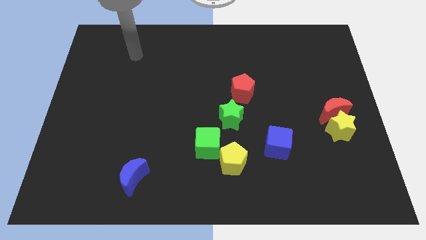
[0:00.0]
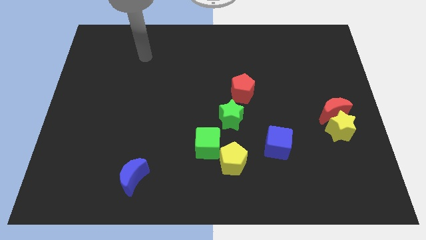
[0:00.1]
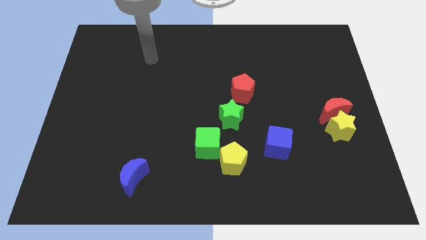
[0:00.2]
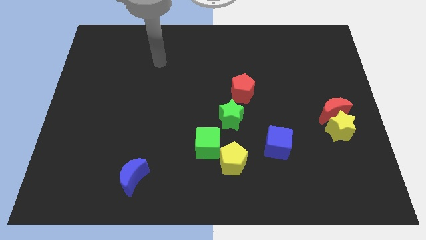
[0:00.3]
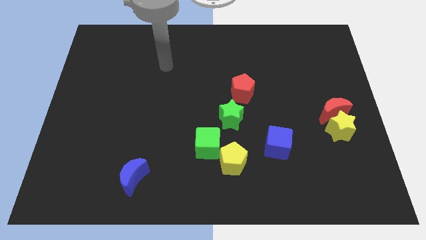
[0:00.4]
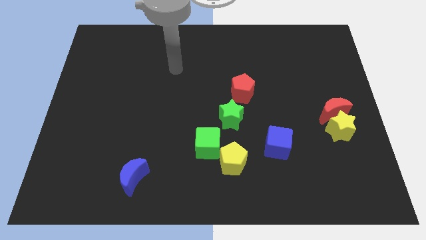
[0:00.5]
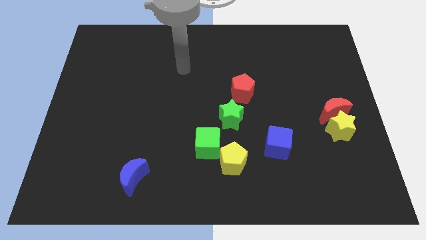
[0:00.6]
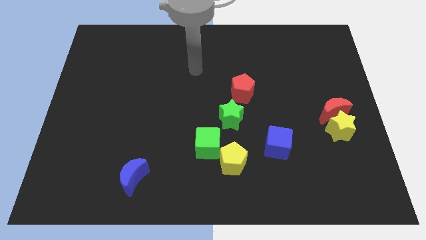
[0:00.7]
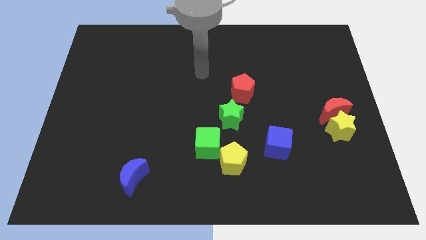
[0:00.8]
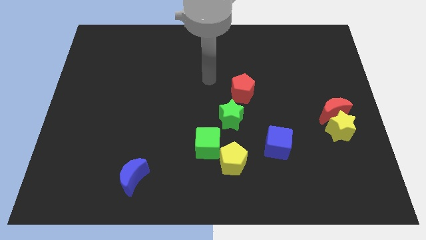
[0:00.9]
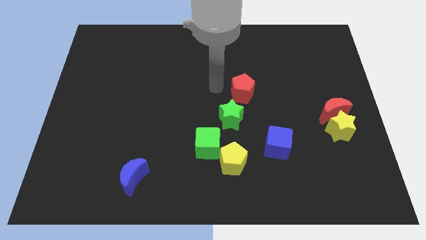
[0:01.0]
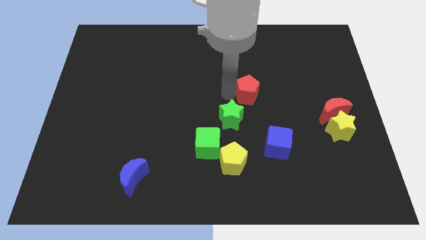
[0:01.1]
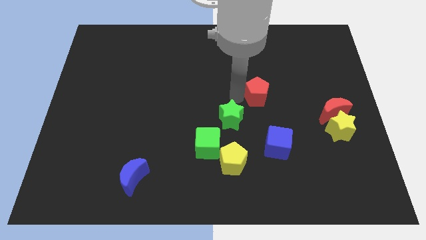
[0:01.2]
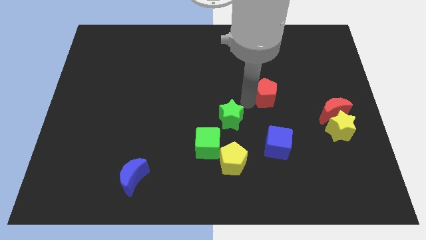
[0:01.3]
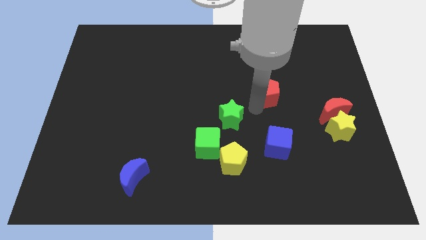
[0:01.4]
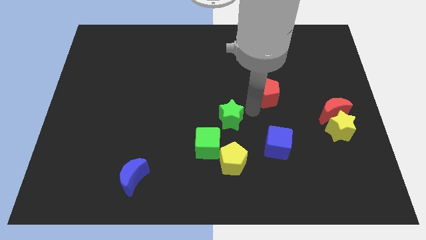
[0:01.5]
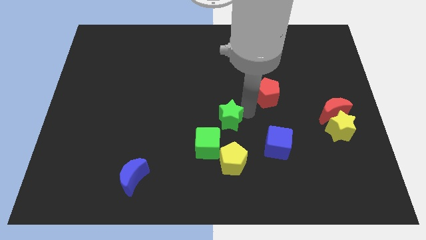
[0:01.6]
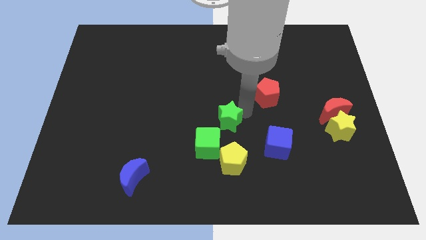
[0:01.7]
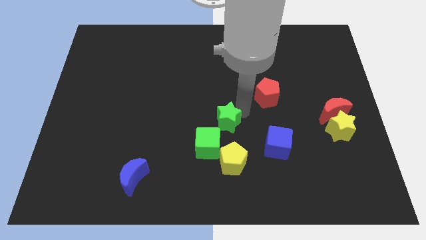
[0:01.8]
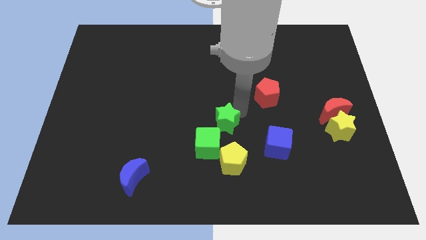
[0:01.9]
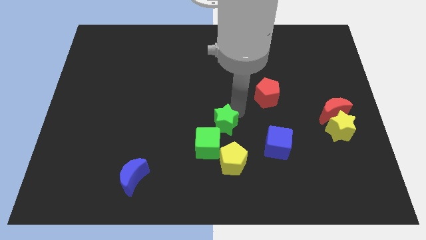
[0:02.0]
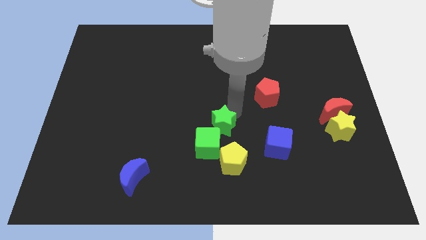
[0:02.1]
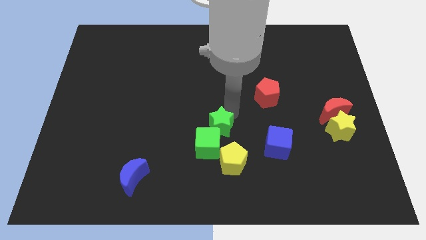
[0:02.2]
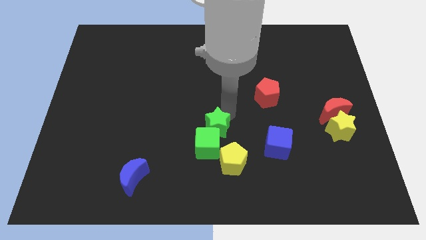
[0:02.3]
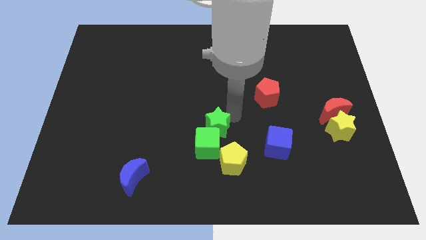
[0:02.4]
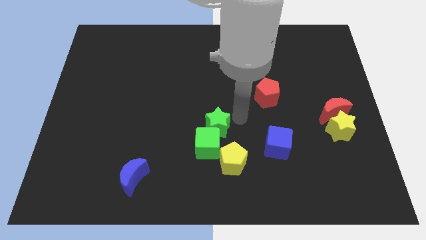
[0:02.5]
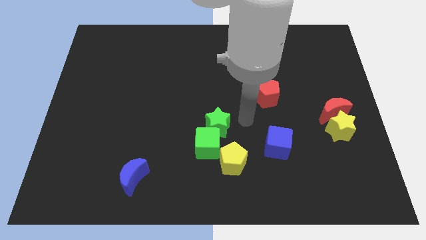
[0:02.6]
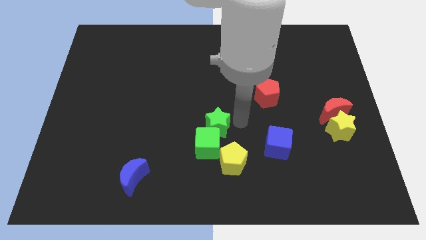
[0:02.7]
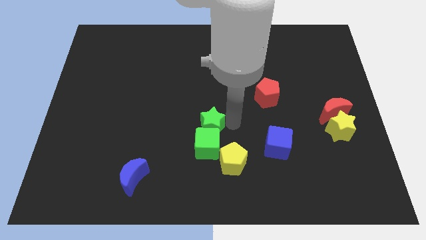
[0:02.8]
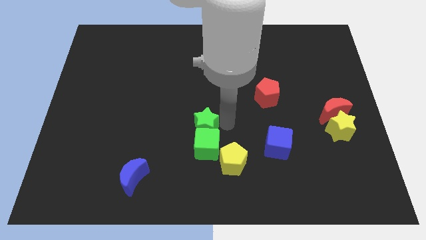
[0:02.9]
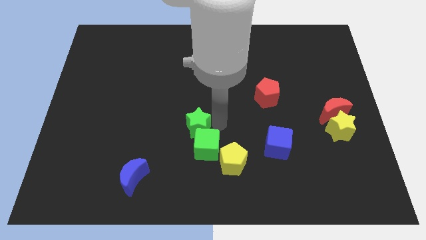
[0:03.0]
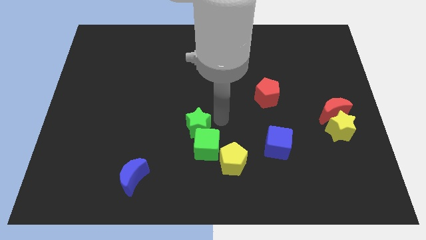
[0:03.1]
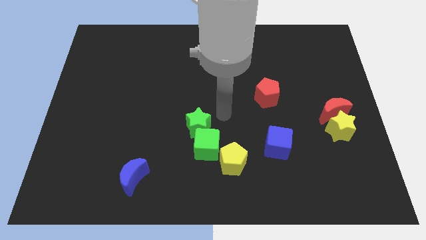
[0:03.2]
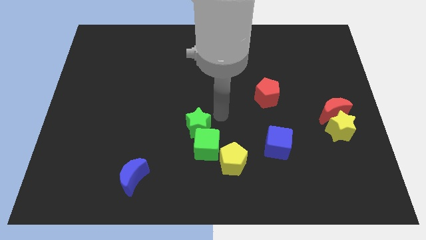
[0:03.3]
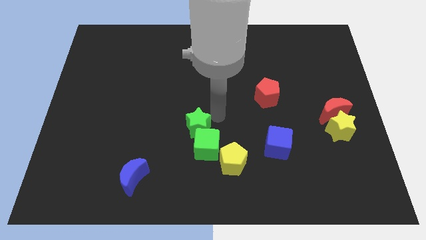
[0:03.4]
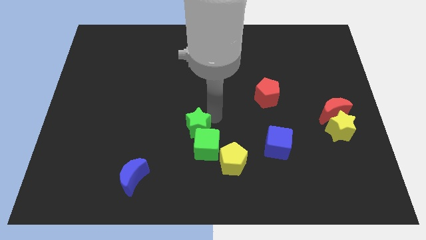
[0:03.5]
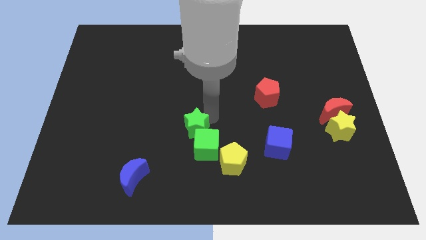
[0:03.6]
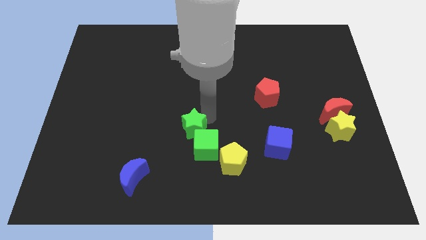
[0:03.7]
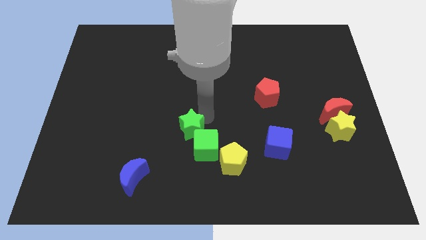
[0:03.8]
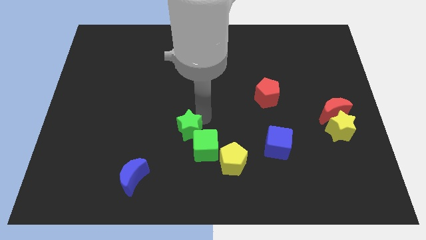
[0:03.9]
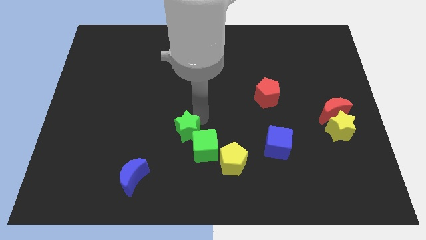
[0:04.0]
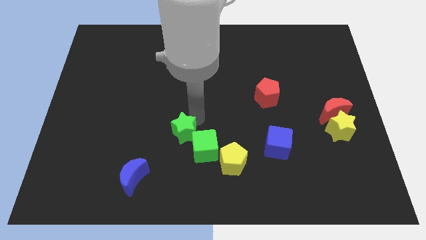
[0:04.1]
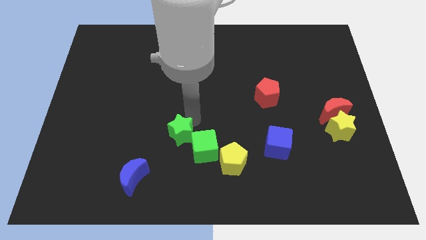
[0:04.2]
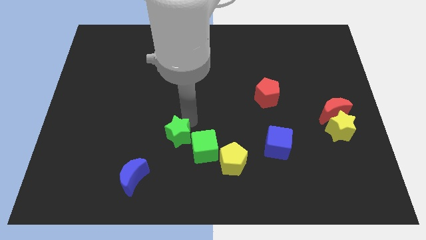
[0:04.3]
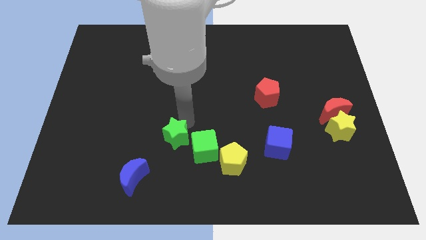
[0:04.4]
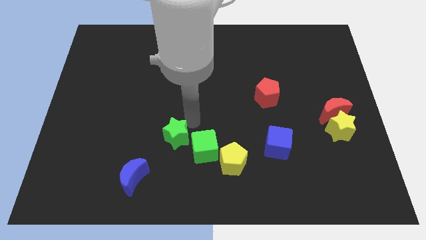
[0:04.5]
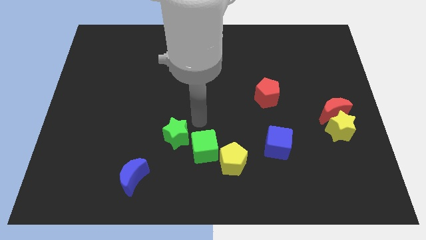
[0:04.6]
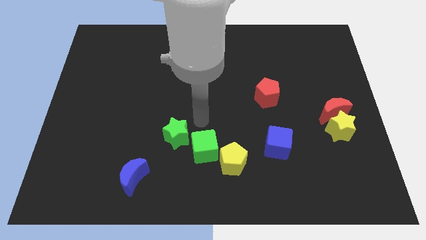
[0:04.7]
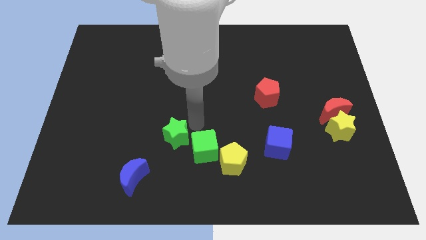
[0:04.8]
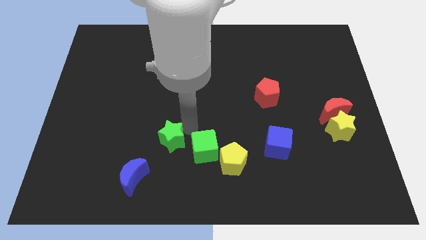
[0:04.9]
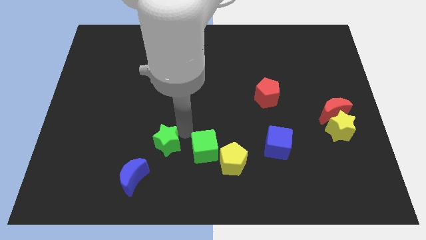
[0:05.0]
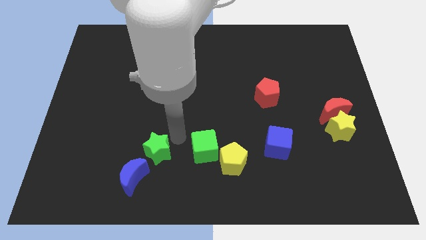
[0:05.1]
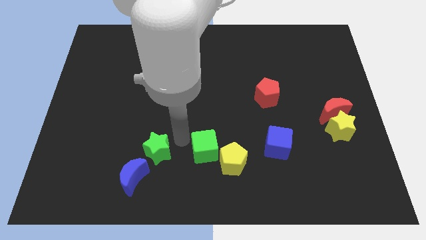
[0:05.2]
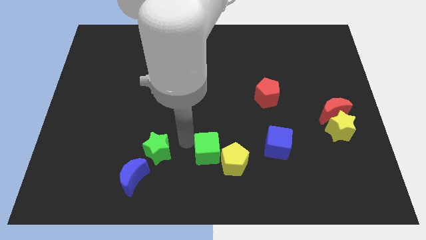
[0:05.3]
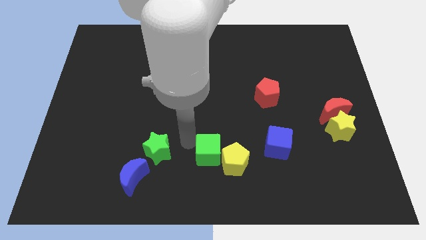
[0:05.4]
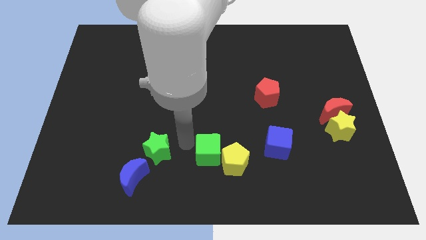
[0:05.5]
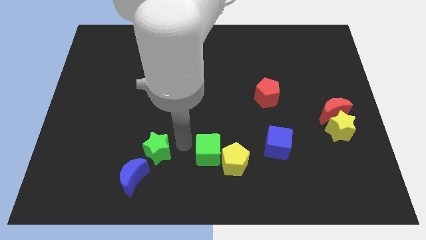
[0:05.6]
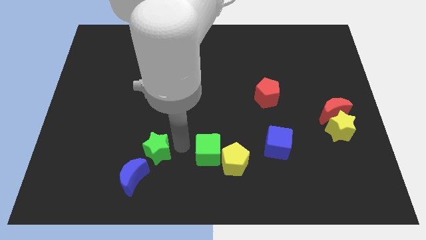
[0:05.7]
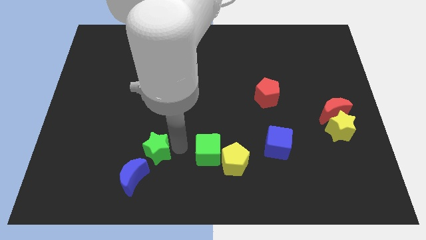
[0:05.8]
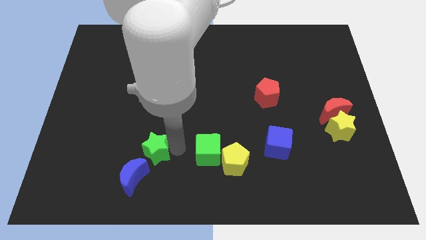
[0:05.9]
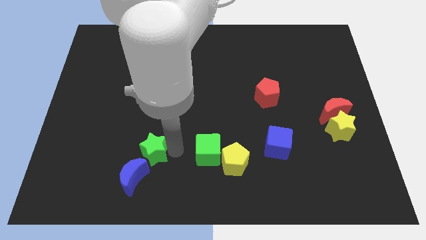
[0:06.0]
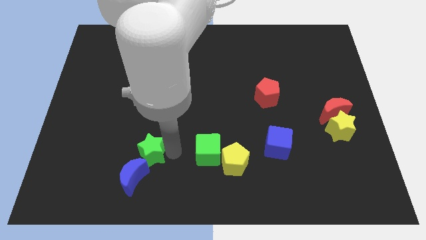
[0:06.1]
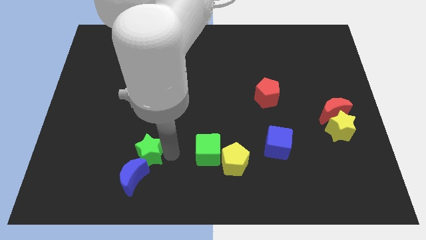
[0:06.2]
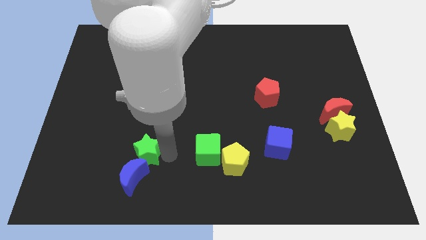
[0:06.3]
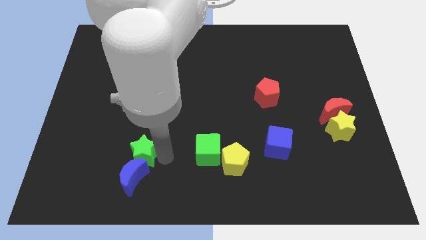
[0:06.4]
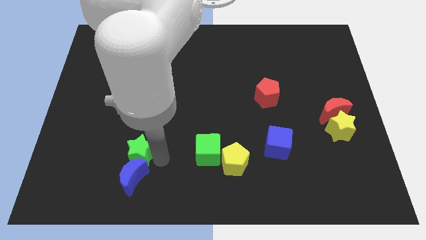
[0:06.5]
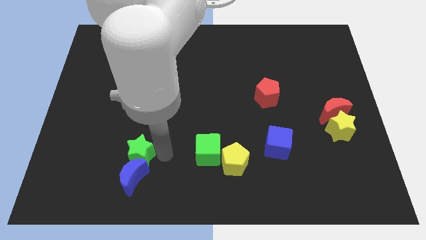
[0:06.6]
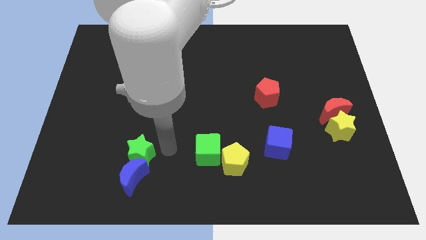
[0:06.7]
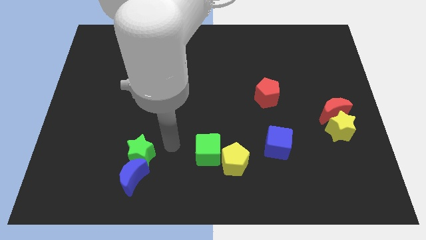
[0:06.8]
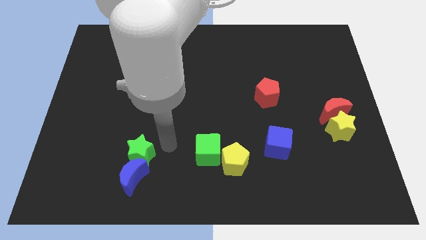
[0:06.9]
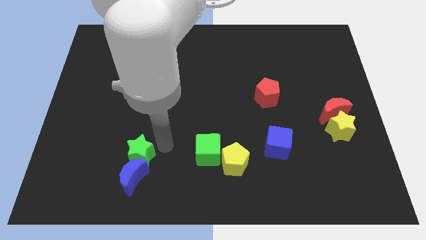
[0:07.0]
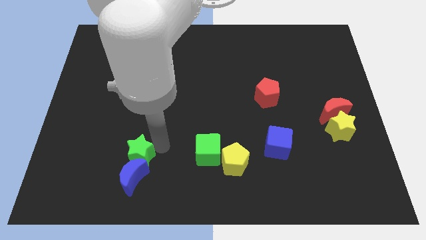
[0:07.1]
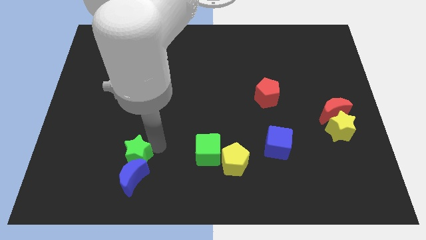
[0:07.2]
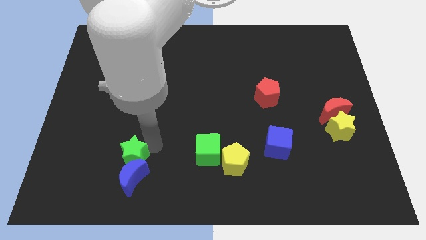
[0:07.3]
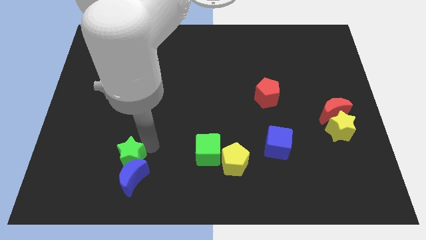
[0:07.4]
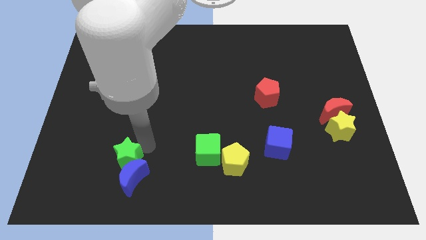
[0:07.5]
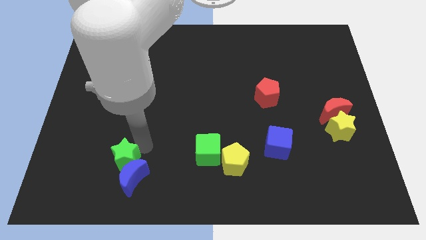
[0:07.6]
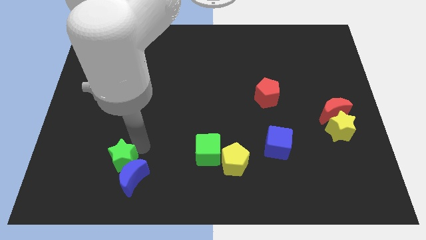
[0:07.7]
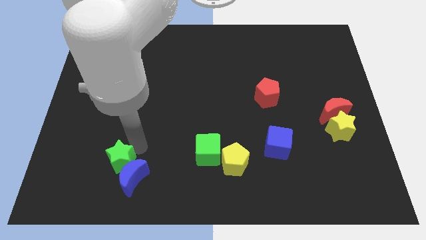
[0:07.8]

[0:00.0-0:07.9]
push the green star to the left side of the blue moon
